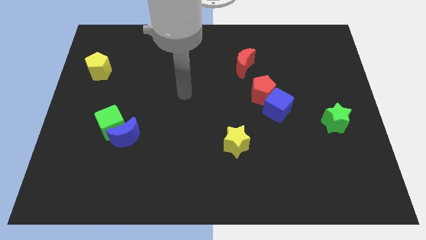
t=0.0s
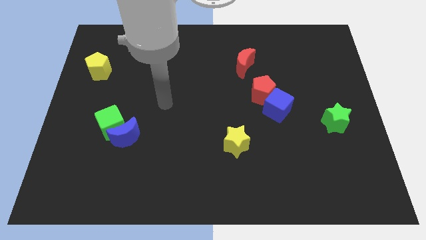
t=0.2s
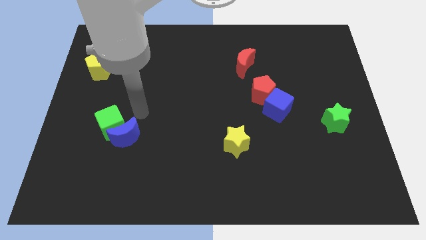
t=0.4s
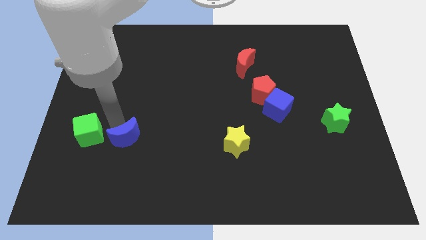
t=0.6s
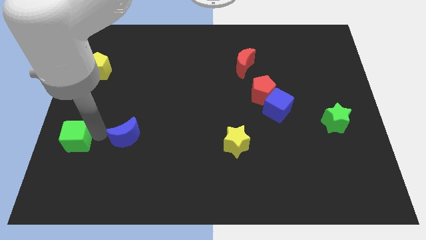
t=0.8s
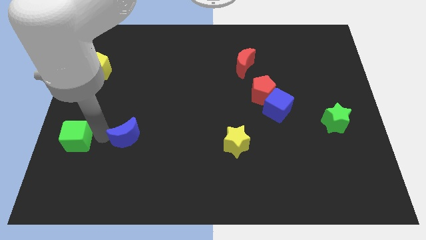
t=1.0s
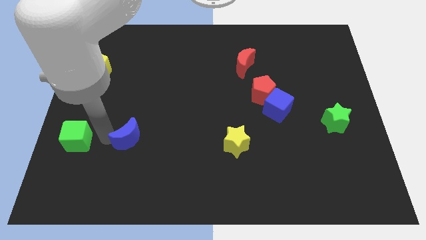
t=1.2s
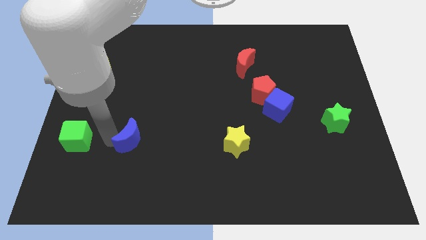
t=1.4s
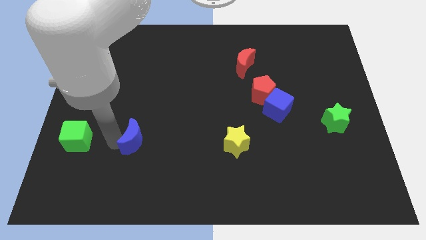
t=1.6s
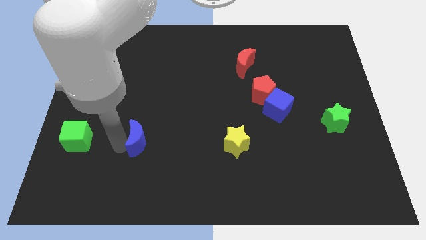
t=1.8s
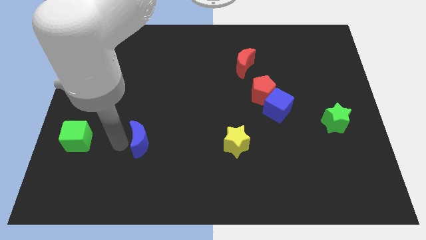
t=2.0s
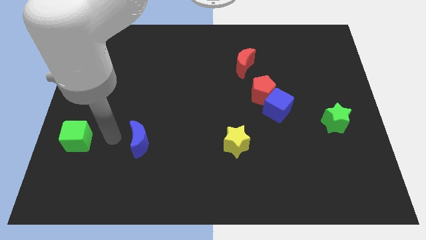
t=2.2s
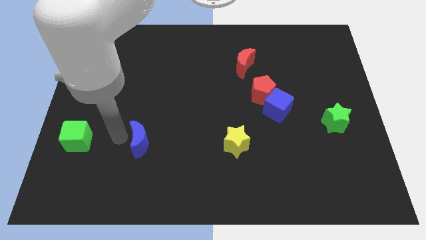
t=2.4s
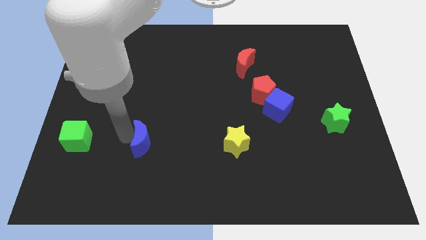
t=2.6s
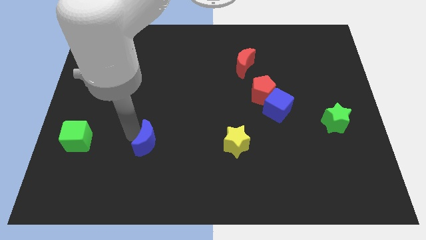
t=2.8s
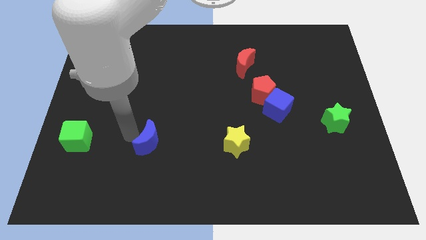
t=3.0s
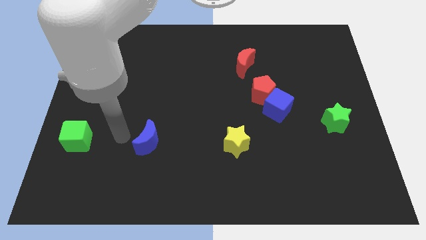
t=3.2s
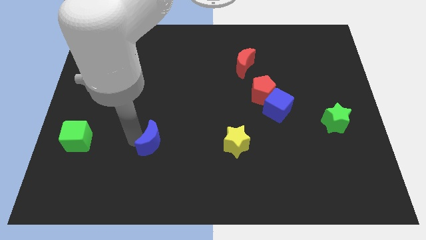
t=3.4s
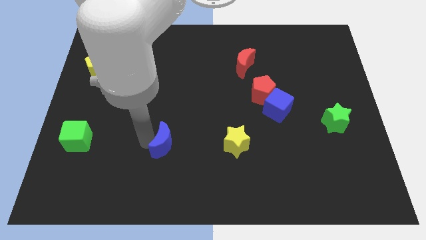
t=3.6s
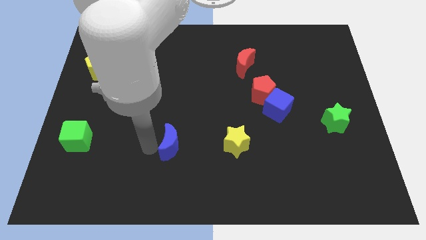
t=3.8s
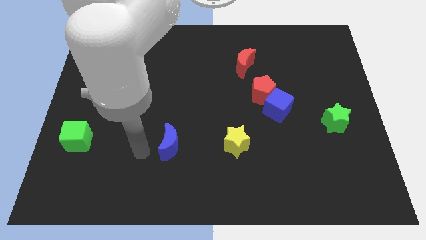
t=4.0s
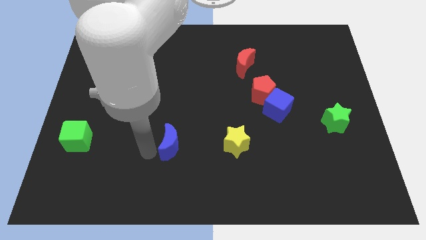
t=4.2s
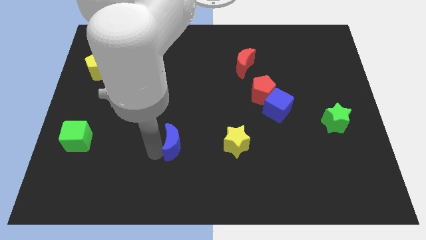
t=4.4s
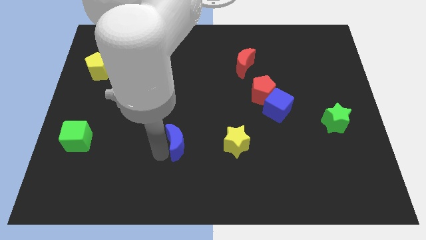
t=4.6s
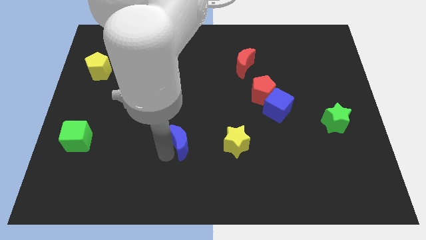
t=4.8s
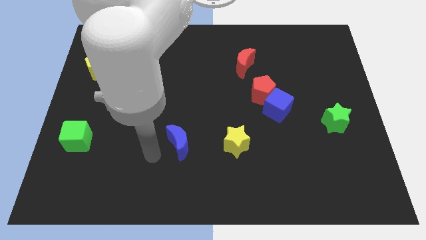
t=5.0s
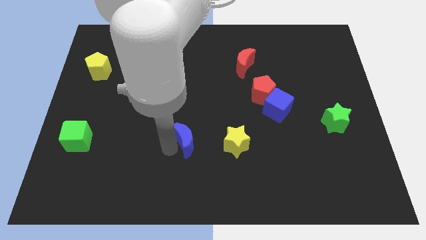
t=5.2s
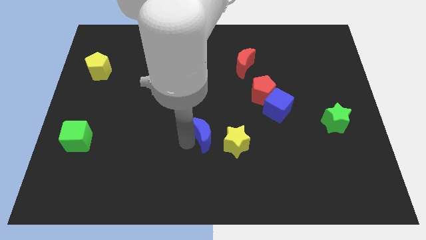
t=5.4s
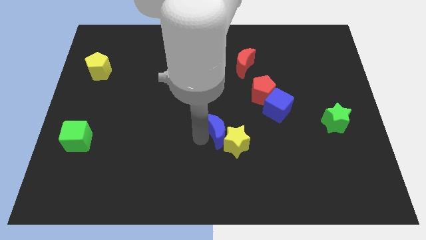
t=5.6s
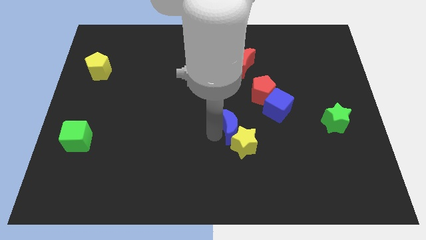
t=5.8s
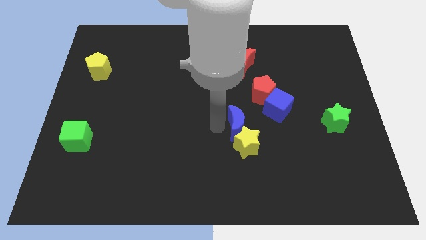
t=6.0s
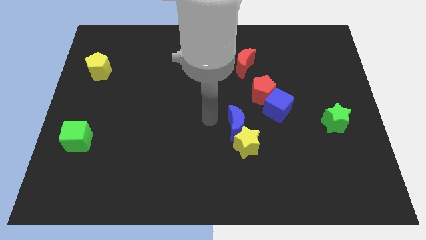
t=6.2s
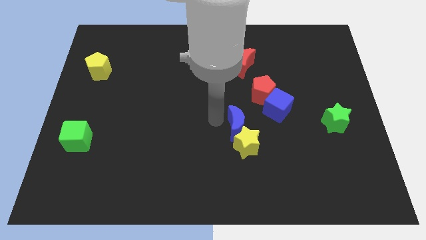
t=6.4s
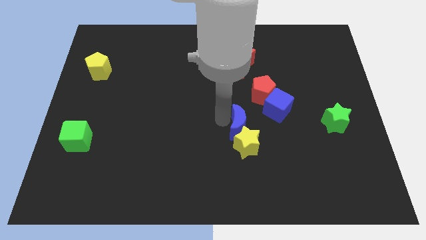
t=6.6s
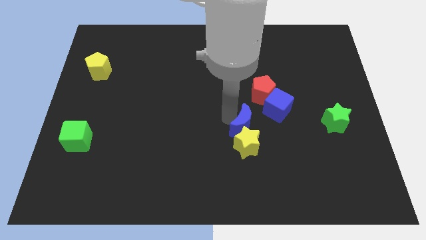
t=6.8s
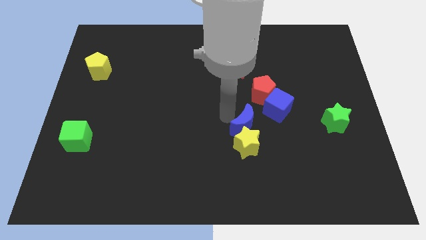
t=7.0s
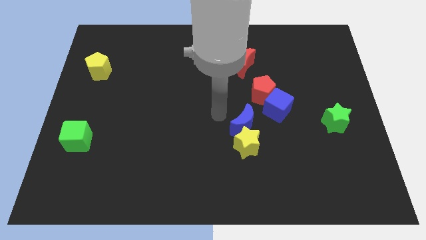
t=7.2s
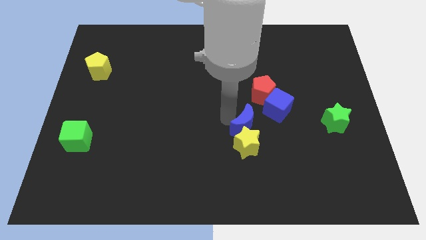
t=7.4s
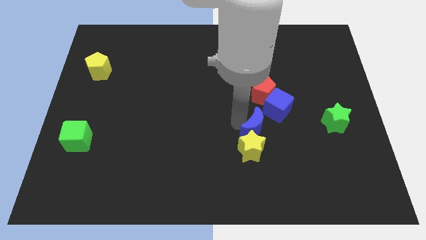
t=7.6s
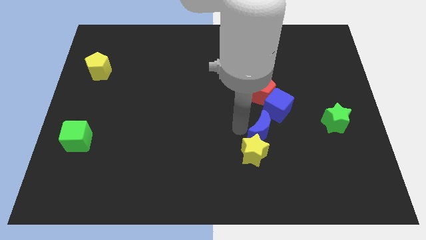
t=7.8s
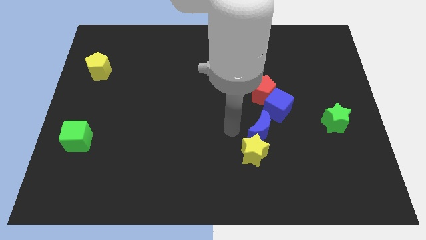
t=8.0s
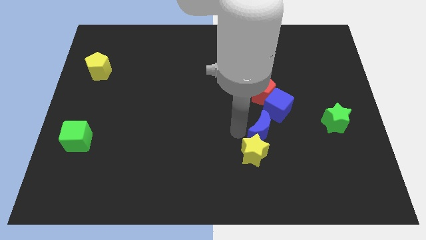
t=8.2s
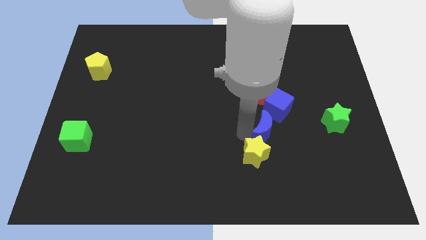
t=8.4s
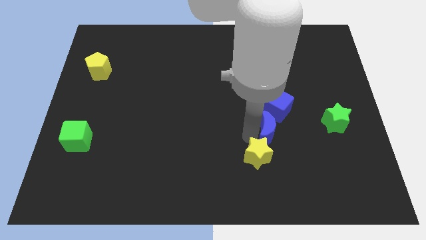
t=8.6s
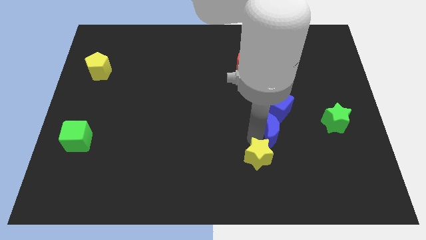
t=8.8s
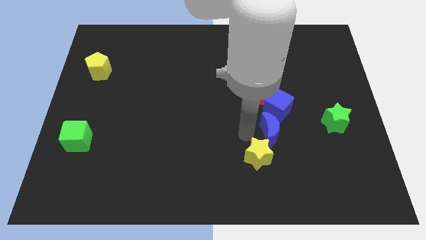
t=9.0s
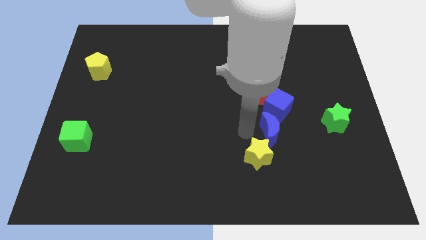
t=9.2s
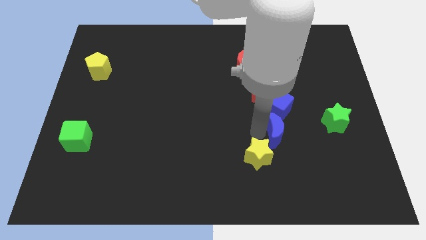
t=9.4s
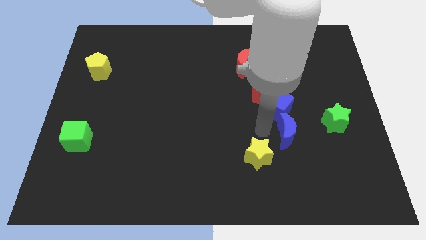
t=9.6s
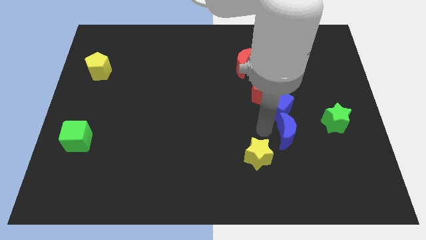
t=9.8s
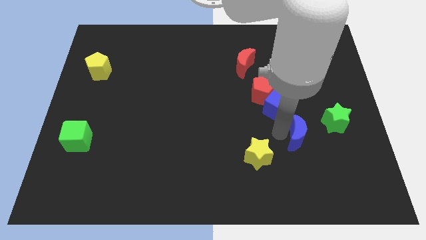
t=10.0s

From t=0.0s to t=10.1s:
move the blue moon to the bottom left of the green star

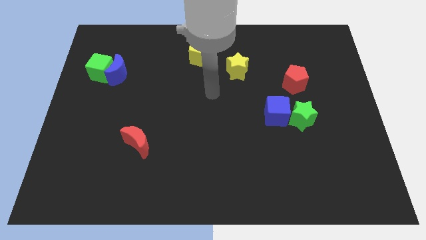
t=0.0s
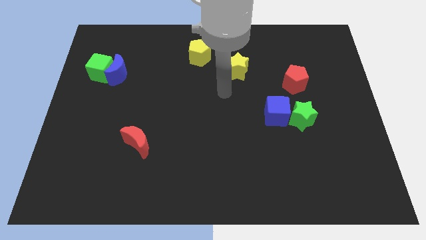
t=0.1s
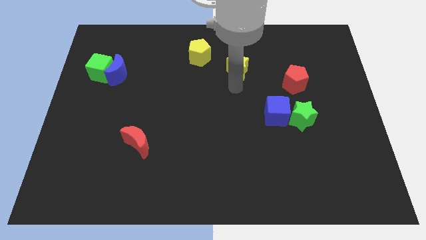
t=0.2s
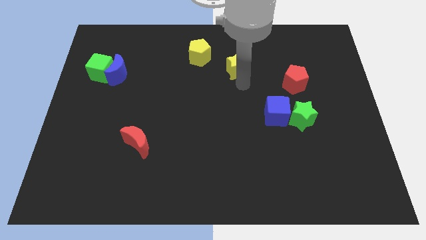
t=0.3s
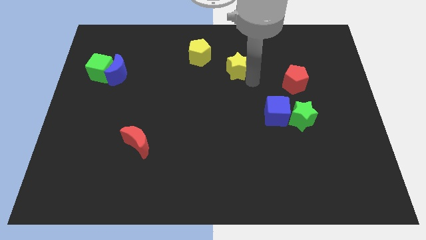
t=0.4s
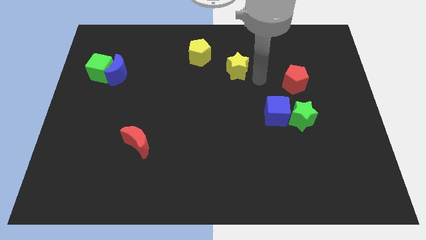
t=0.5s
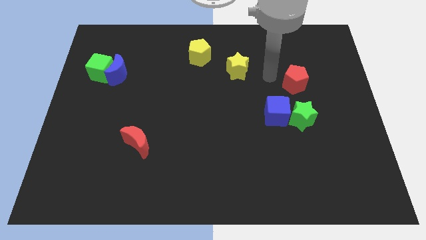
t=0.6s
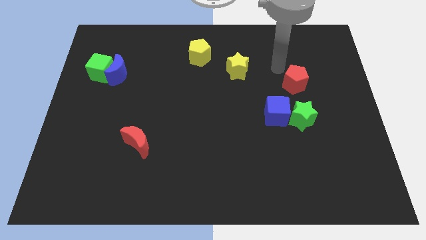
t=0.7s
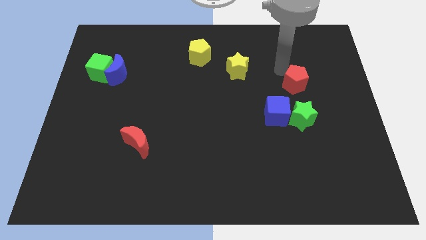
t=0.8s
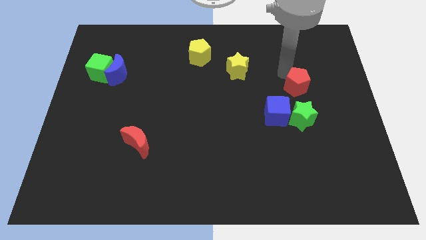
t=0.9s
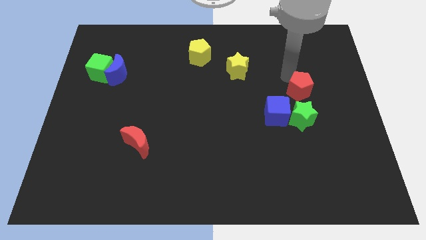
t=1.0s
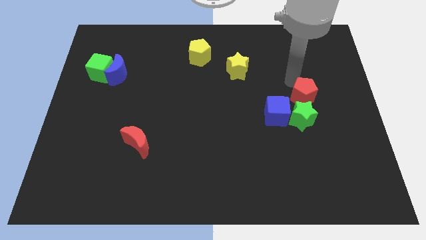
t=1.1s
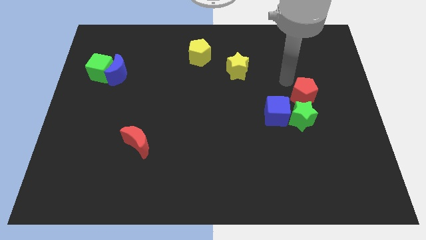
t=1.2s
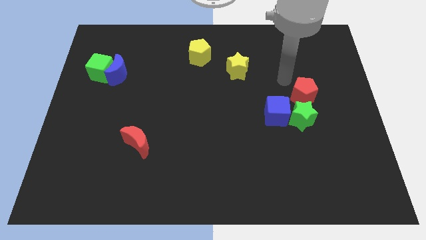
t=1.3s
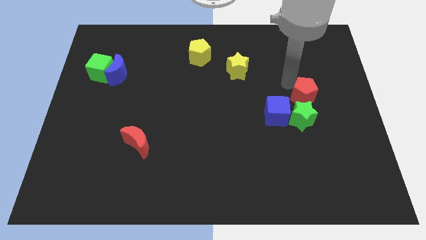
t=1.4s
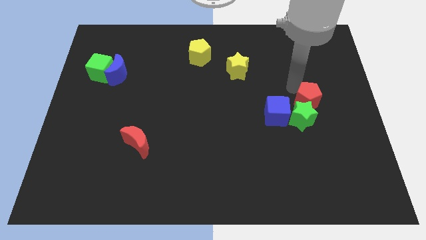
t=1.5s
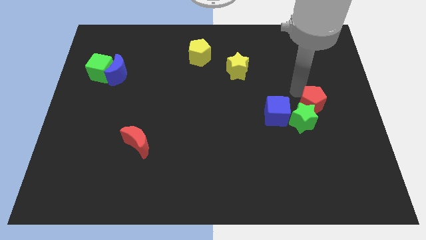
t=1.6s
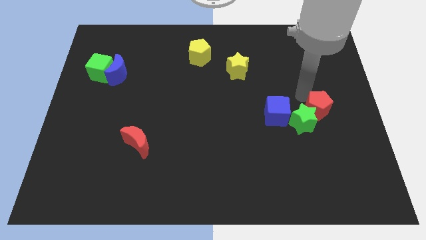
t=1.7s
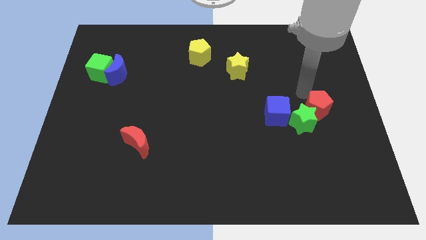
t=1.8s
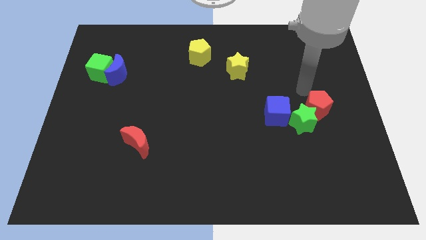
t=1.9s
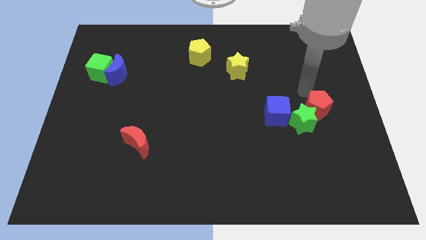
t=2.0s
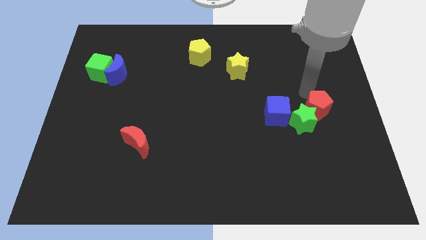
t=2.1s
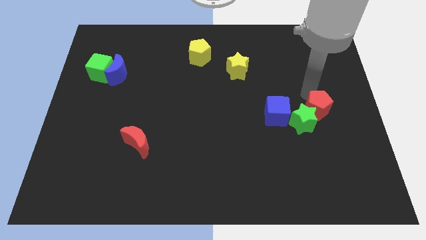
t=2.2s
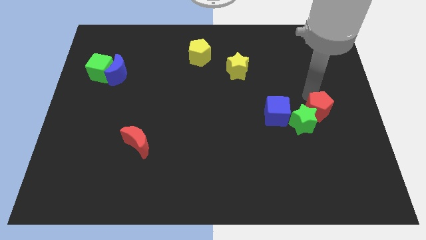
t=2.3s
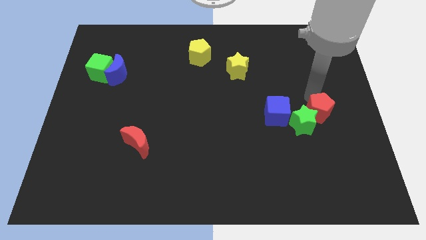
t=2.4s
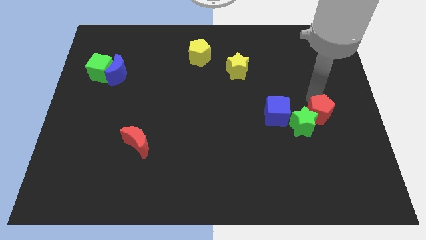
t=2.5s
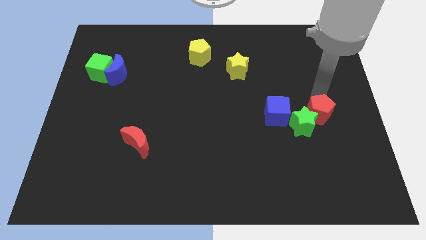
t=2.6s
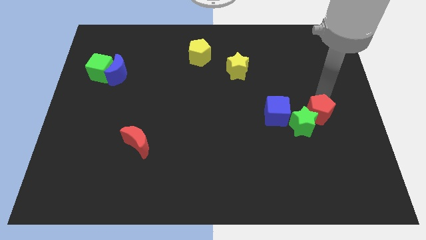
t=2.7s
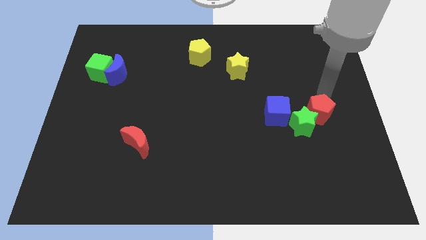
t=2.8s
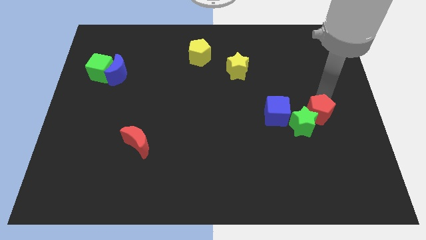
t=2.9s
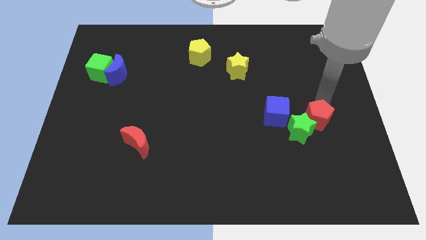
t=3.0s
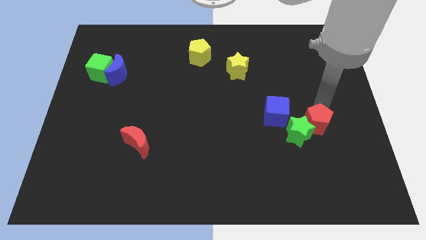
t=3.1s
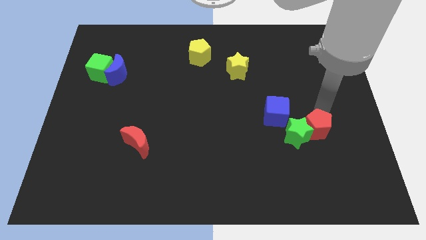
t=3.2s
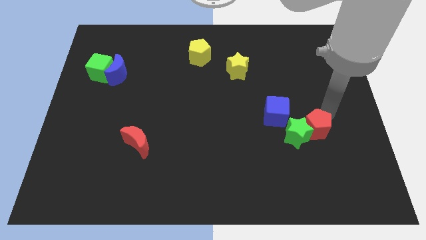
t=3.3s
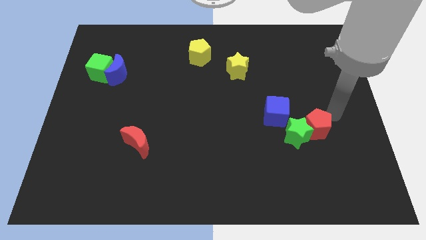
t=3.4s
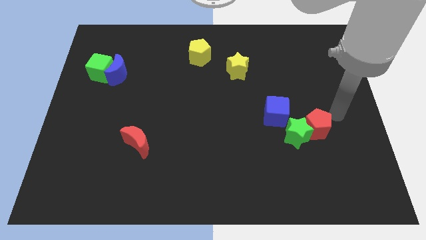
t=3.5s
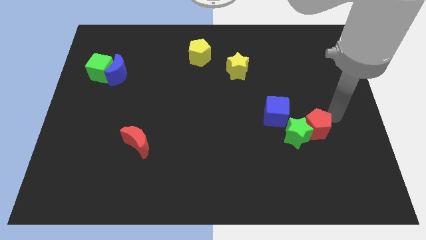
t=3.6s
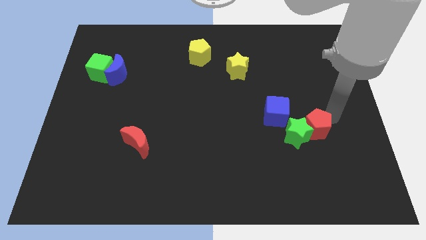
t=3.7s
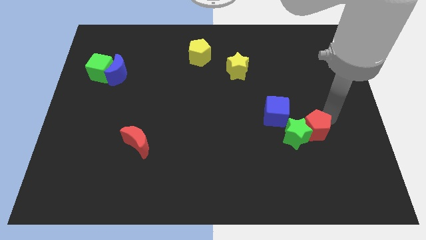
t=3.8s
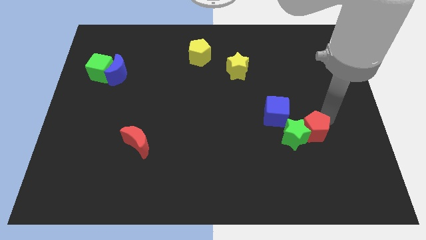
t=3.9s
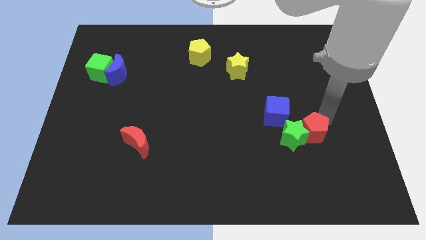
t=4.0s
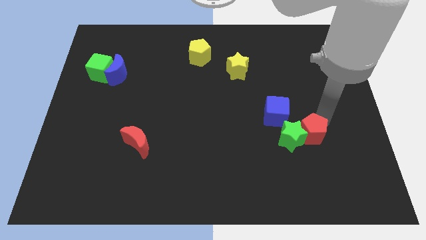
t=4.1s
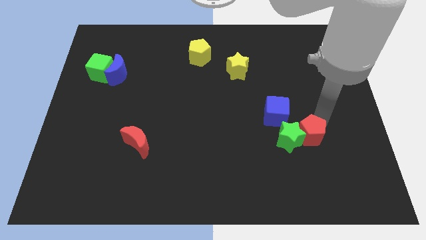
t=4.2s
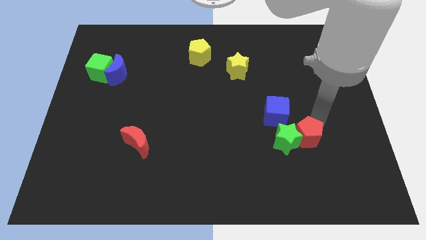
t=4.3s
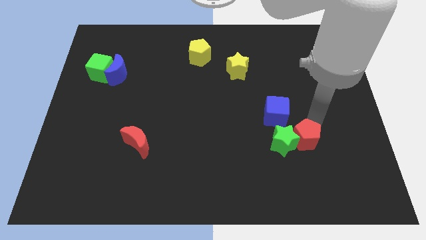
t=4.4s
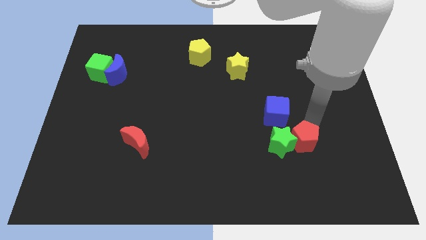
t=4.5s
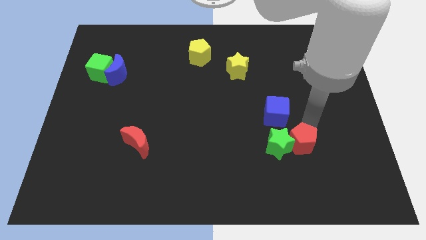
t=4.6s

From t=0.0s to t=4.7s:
push the red pentagon below the blue cube
